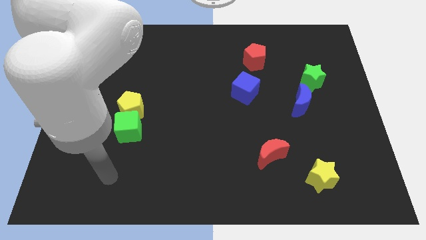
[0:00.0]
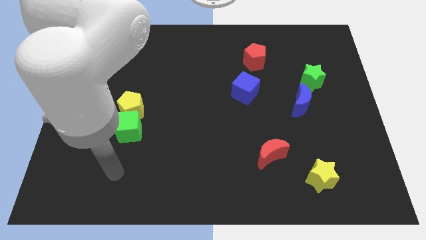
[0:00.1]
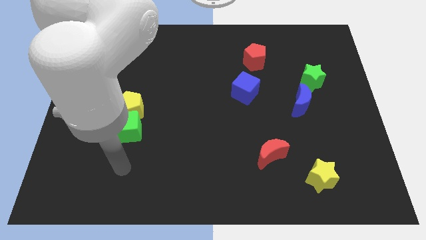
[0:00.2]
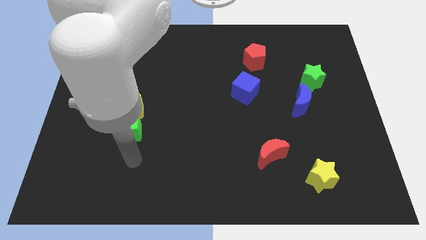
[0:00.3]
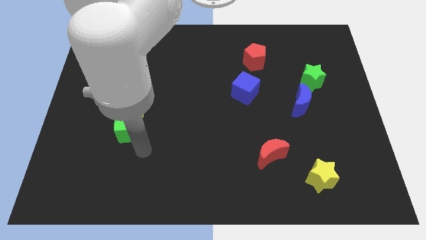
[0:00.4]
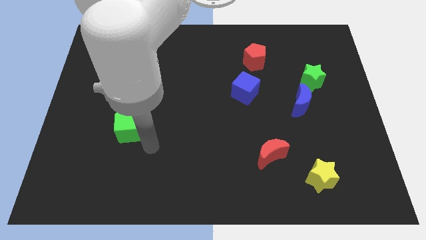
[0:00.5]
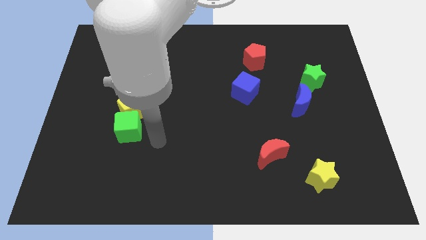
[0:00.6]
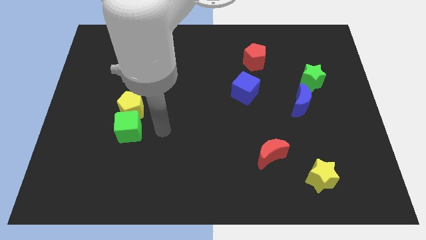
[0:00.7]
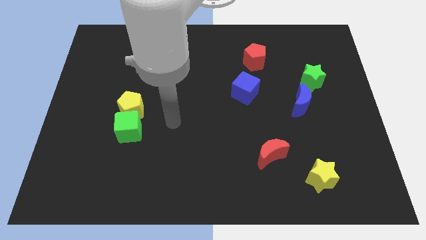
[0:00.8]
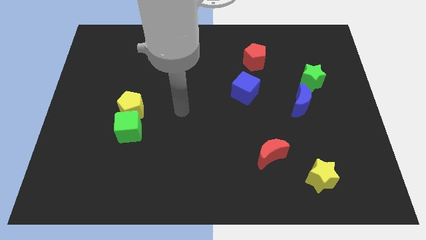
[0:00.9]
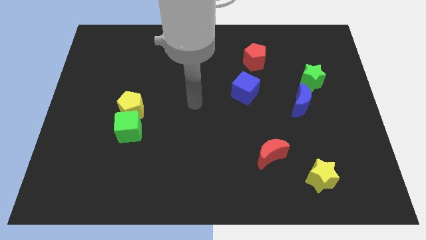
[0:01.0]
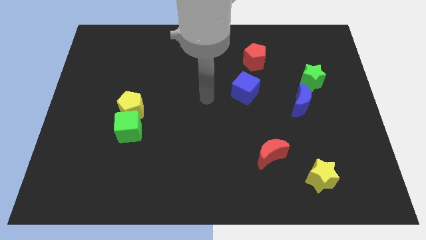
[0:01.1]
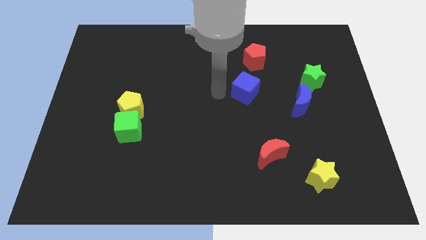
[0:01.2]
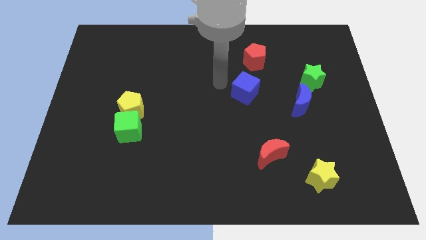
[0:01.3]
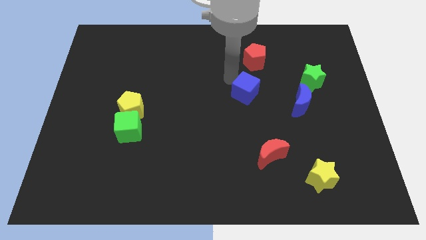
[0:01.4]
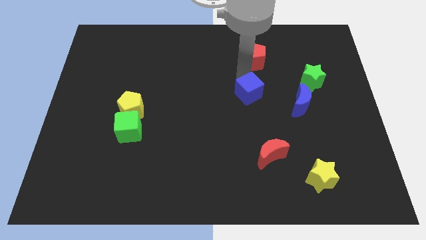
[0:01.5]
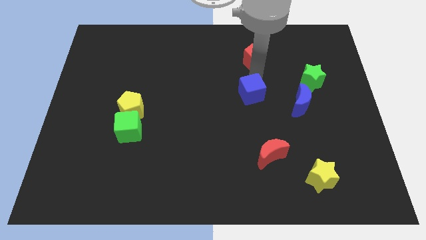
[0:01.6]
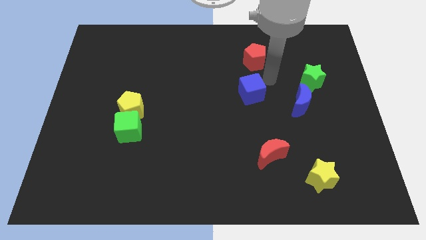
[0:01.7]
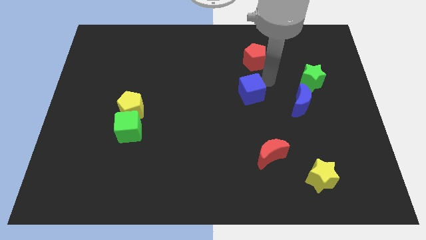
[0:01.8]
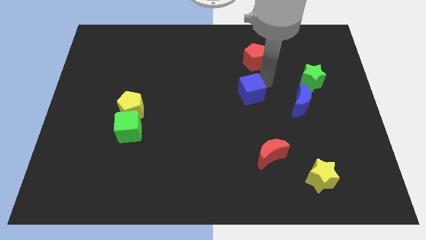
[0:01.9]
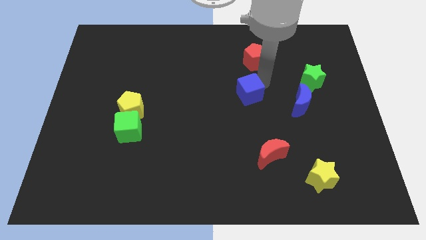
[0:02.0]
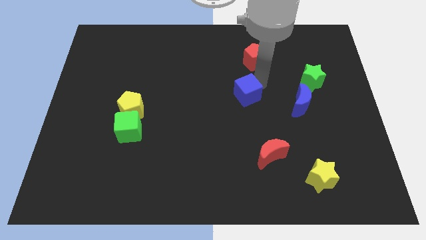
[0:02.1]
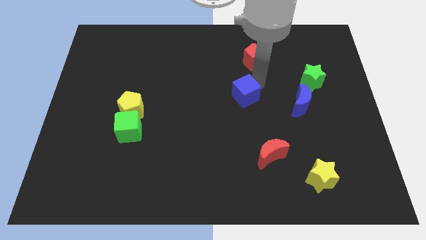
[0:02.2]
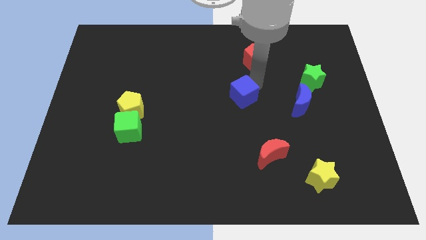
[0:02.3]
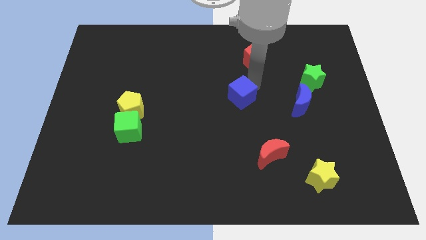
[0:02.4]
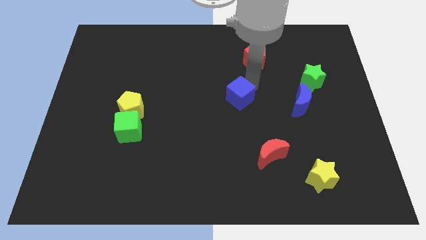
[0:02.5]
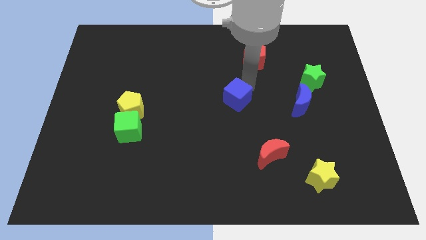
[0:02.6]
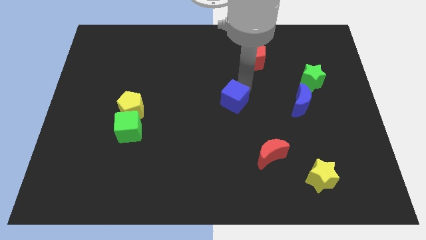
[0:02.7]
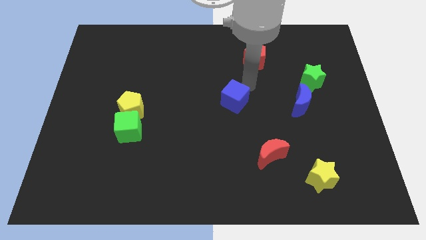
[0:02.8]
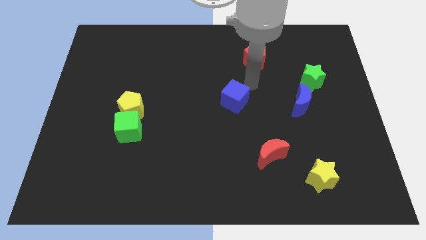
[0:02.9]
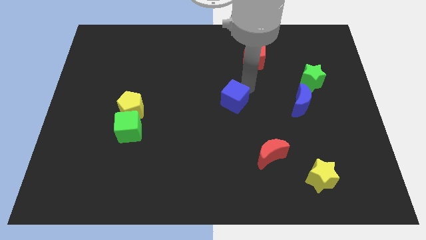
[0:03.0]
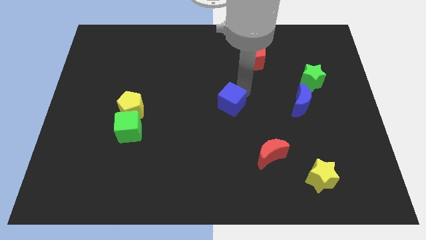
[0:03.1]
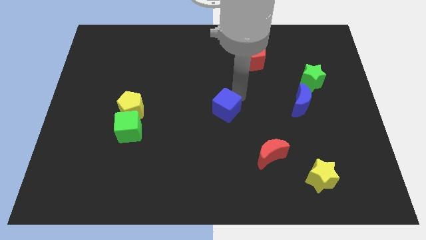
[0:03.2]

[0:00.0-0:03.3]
push the blue cube down and then to the left slightly

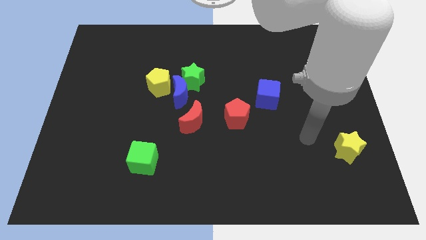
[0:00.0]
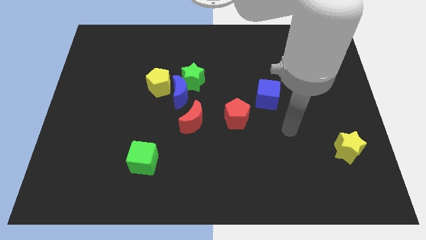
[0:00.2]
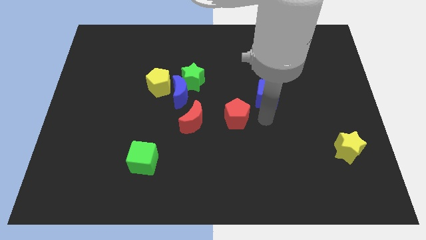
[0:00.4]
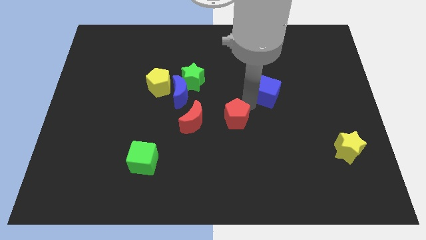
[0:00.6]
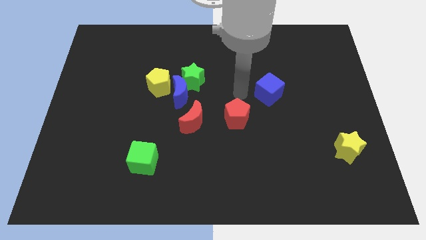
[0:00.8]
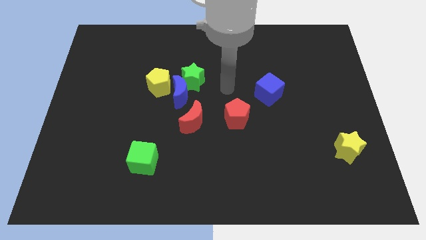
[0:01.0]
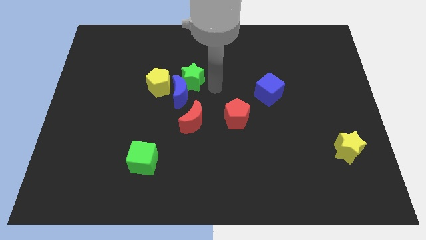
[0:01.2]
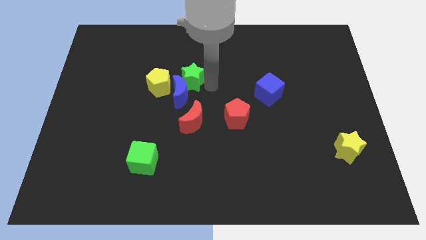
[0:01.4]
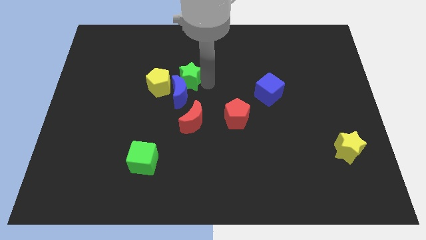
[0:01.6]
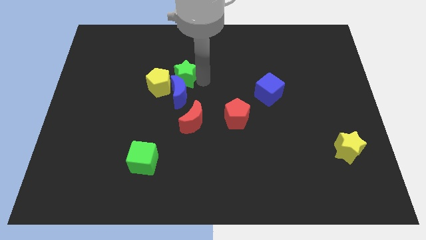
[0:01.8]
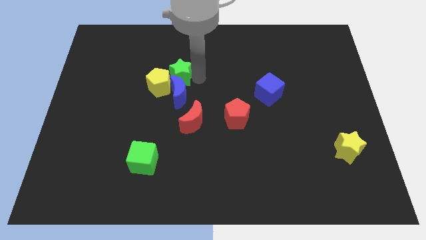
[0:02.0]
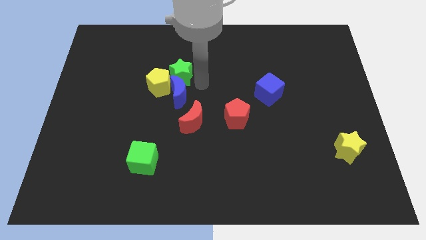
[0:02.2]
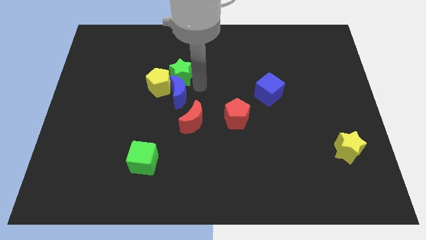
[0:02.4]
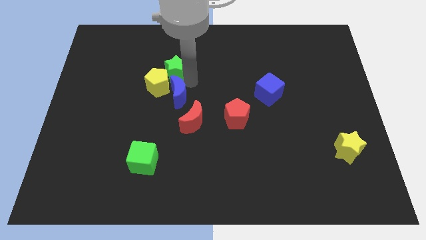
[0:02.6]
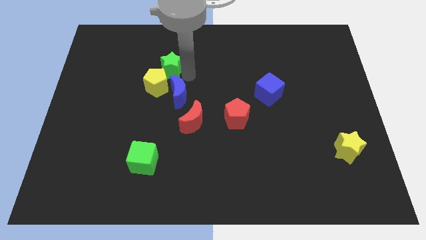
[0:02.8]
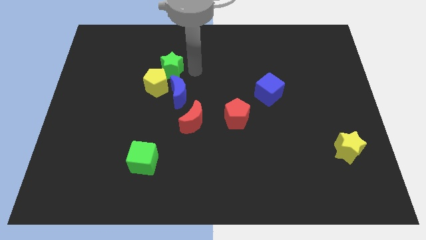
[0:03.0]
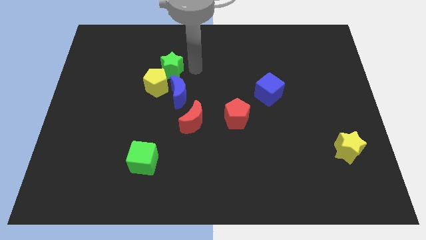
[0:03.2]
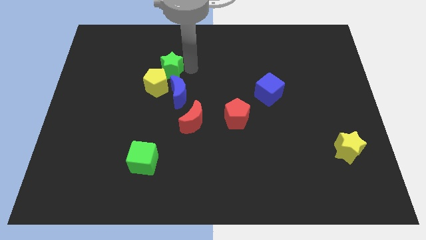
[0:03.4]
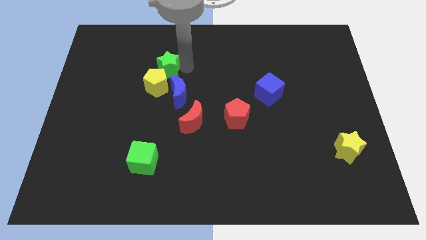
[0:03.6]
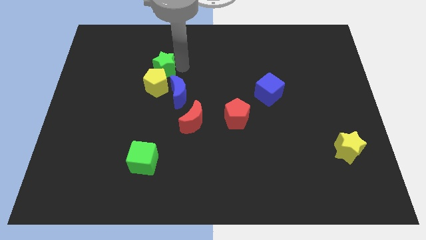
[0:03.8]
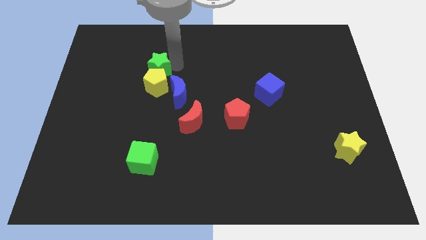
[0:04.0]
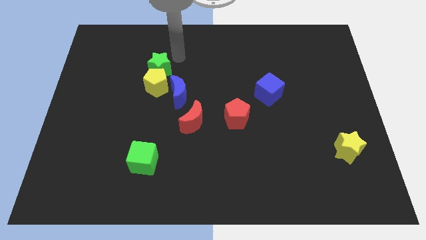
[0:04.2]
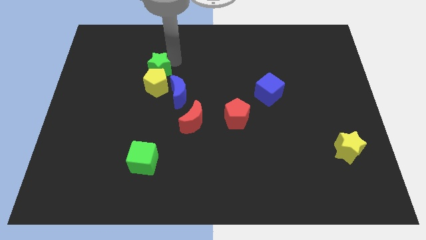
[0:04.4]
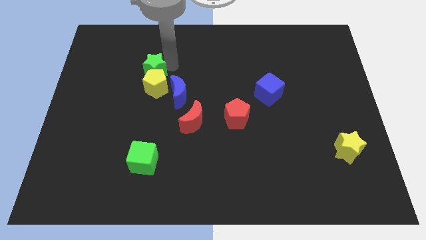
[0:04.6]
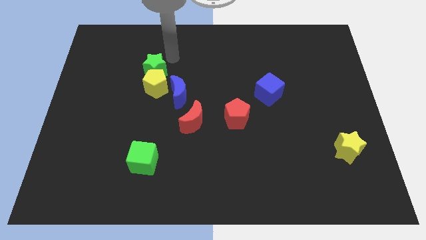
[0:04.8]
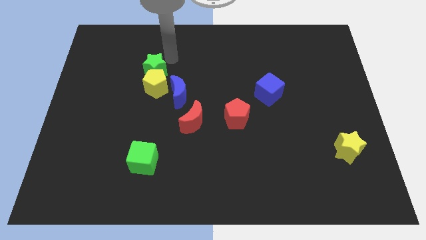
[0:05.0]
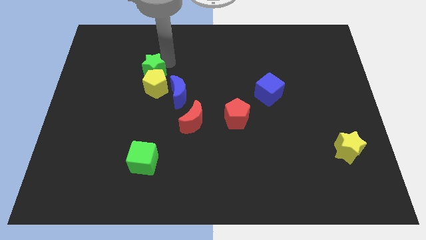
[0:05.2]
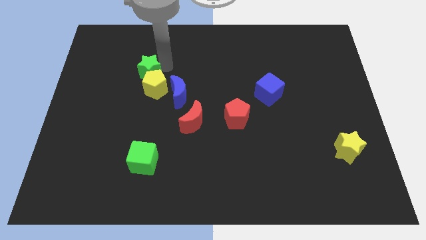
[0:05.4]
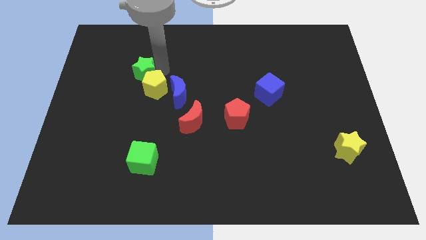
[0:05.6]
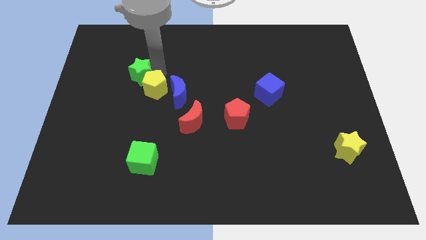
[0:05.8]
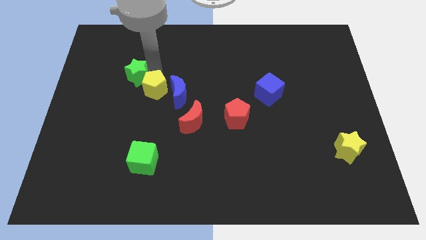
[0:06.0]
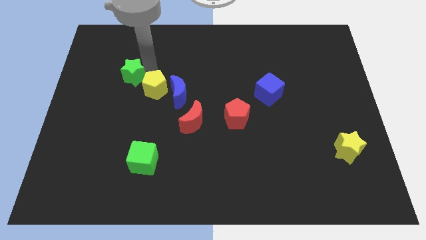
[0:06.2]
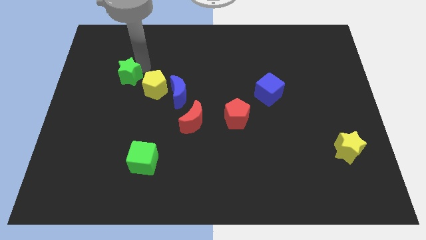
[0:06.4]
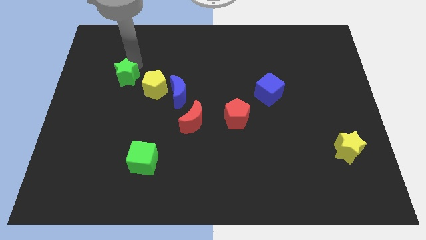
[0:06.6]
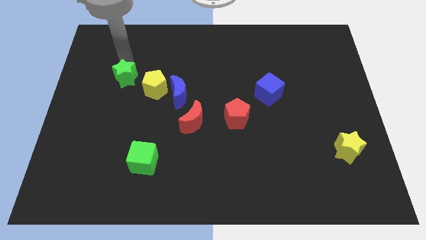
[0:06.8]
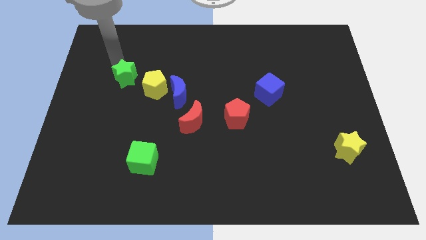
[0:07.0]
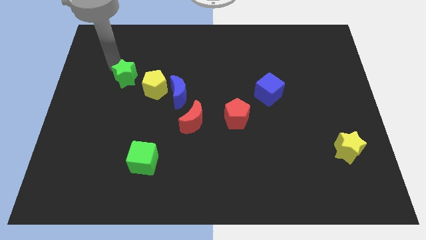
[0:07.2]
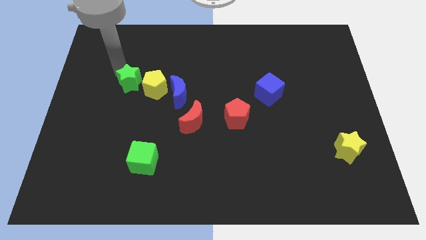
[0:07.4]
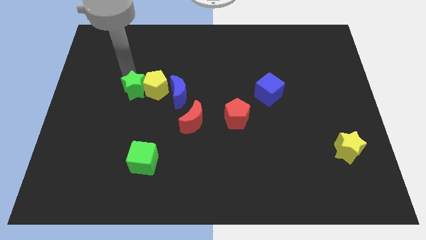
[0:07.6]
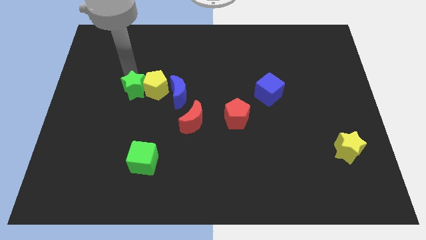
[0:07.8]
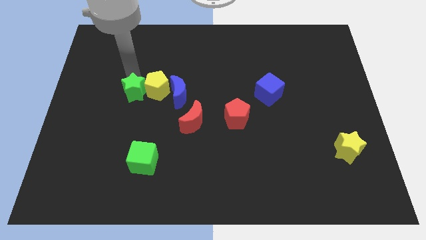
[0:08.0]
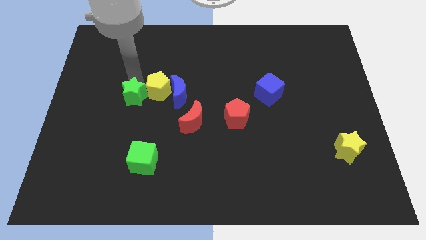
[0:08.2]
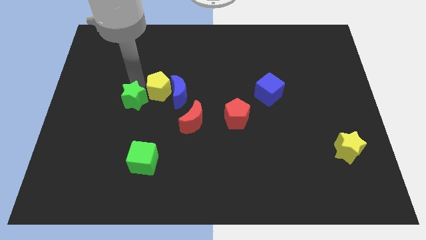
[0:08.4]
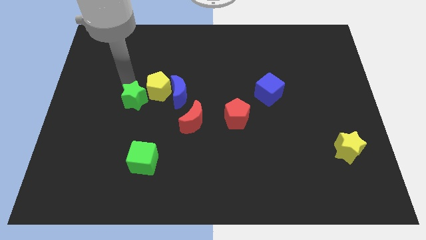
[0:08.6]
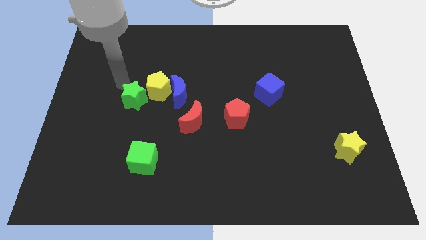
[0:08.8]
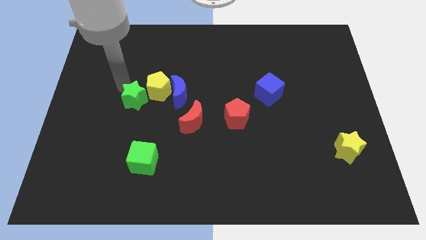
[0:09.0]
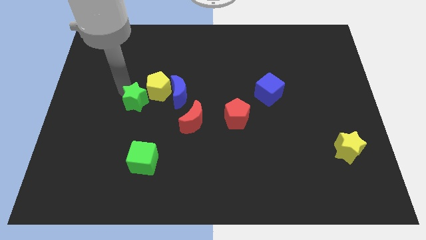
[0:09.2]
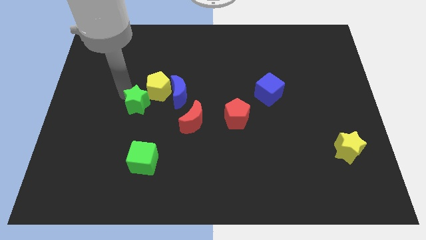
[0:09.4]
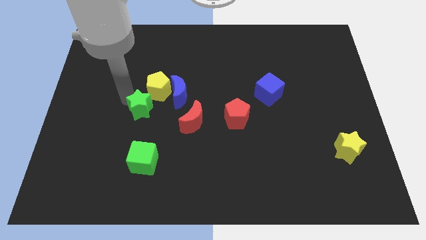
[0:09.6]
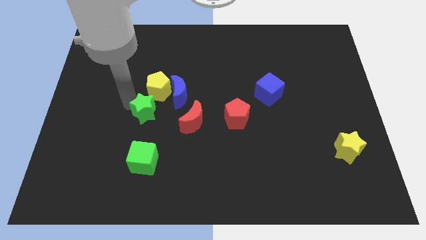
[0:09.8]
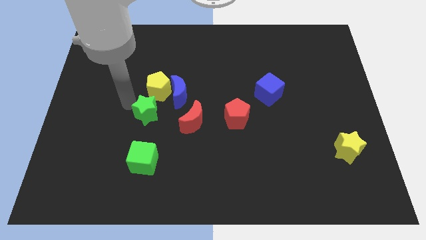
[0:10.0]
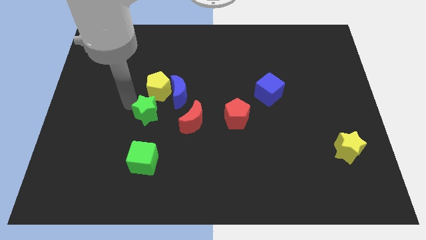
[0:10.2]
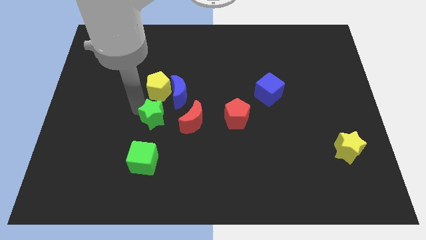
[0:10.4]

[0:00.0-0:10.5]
slightly slide the green star downwards
